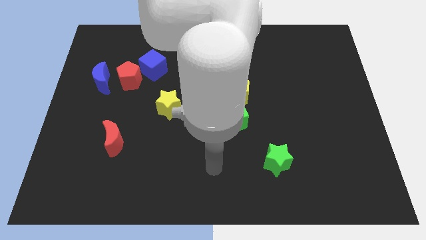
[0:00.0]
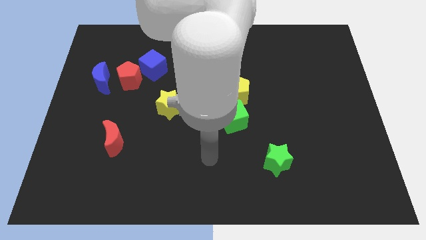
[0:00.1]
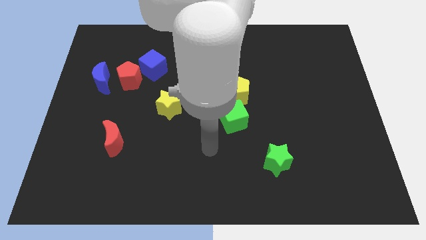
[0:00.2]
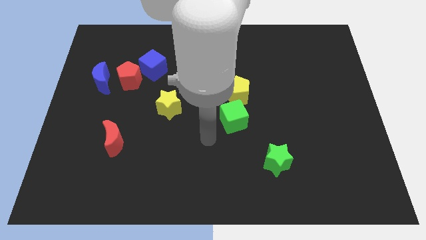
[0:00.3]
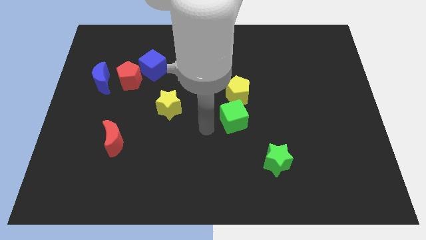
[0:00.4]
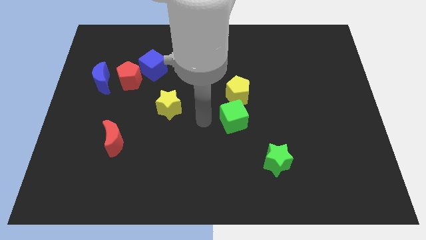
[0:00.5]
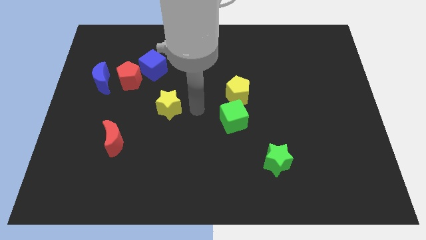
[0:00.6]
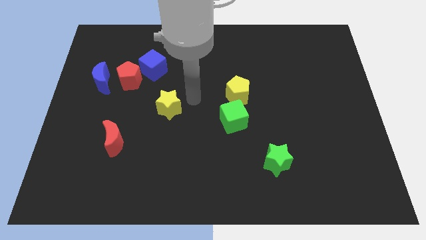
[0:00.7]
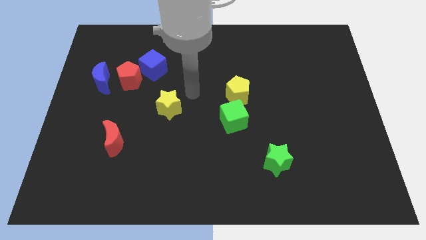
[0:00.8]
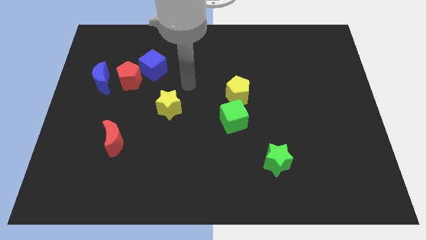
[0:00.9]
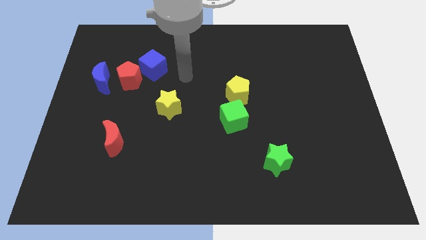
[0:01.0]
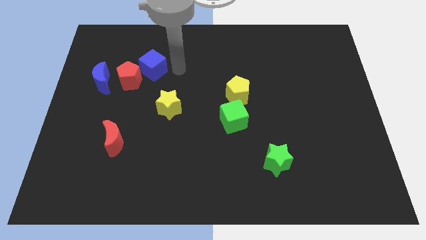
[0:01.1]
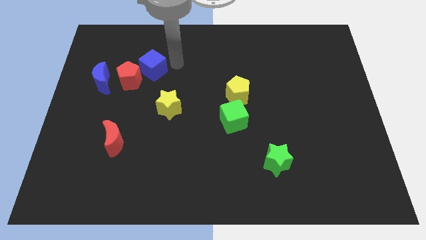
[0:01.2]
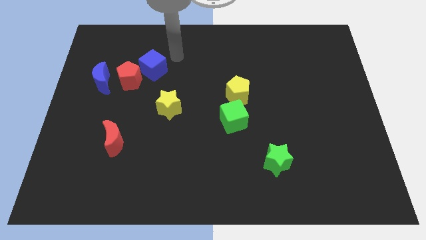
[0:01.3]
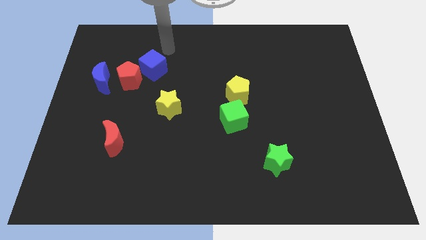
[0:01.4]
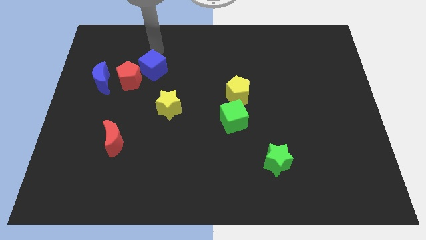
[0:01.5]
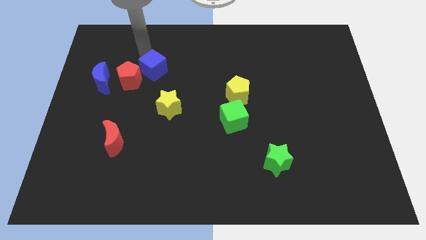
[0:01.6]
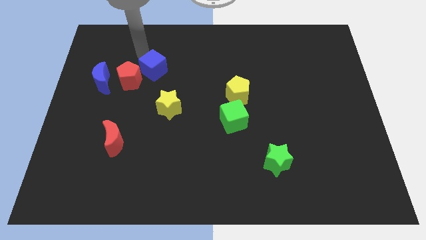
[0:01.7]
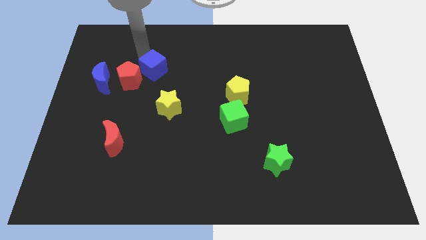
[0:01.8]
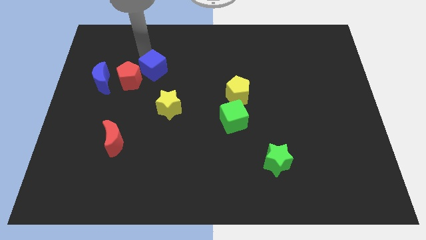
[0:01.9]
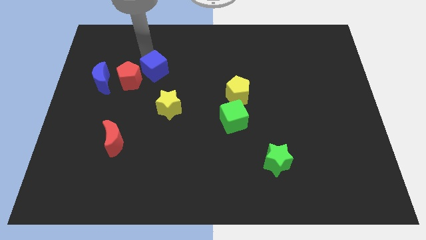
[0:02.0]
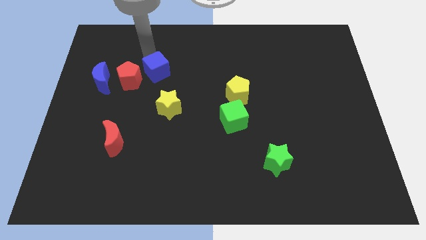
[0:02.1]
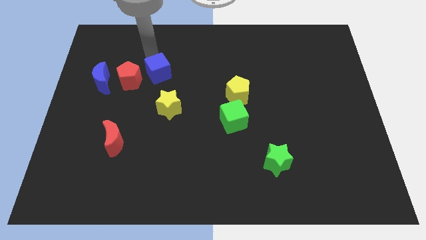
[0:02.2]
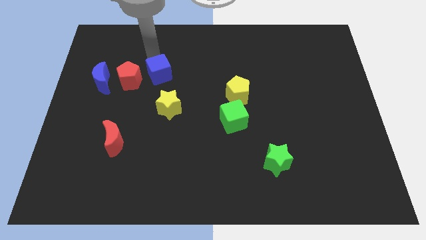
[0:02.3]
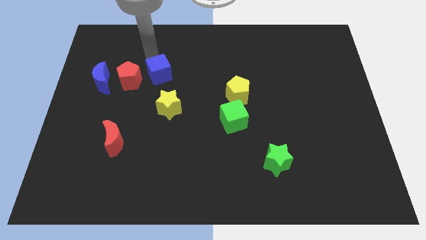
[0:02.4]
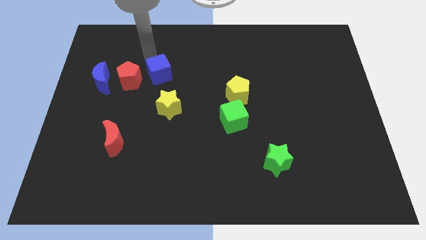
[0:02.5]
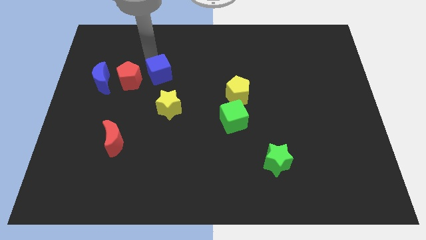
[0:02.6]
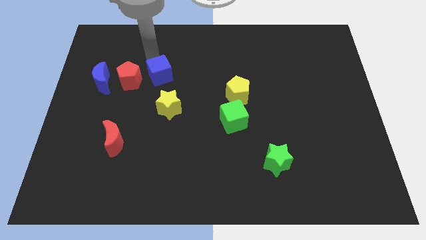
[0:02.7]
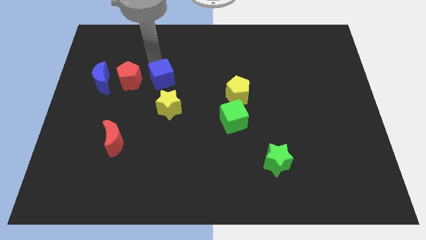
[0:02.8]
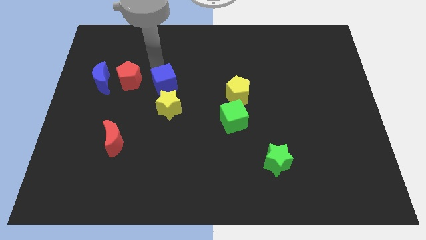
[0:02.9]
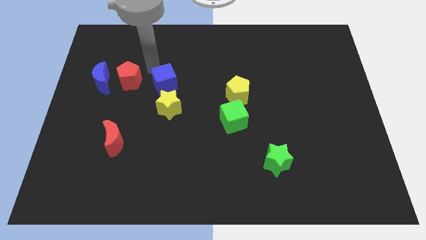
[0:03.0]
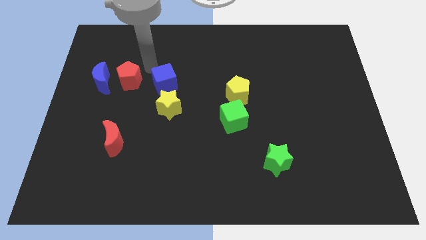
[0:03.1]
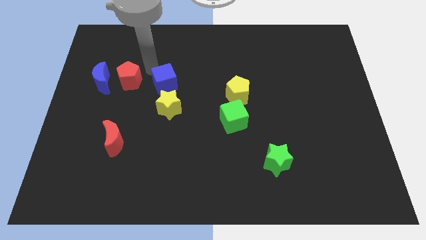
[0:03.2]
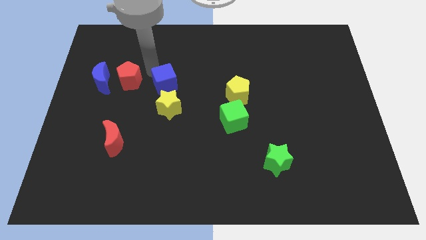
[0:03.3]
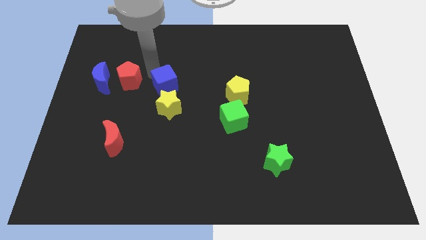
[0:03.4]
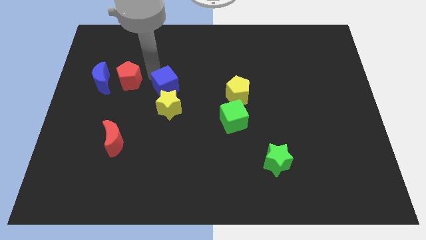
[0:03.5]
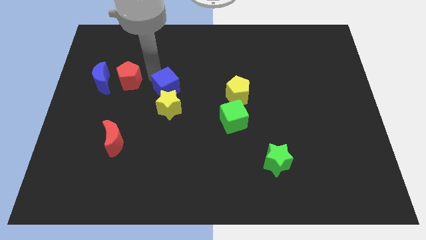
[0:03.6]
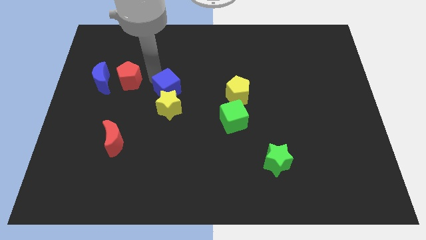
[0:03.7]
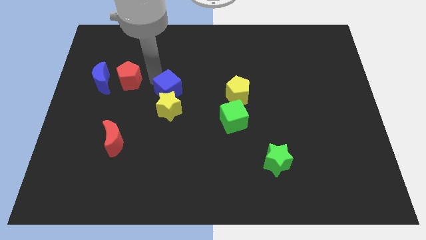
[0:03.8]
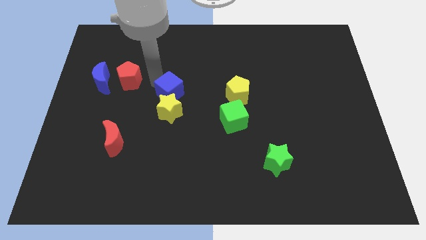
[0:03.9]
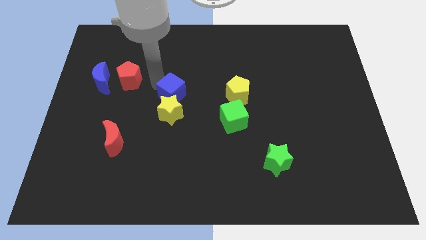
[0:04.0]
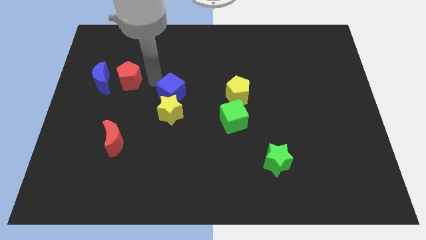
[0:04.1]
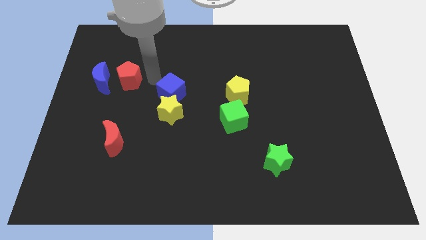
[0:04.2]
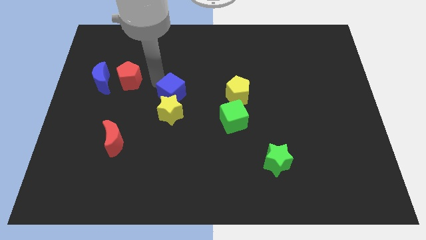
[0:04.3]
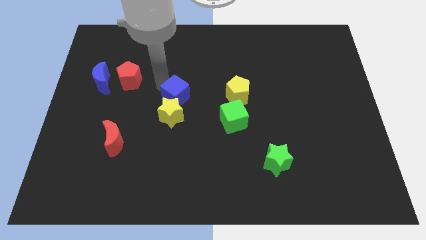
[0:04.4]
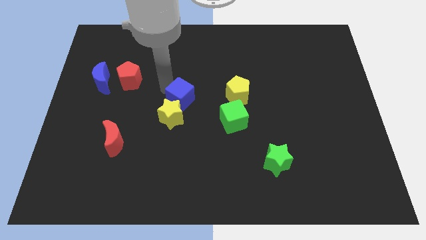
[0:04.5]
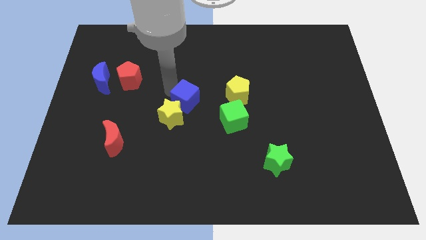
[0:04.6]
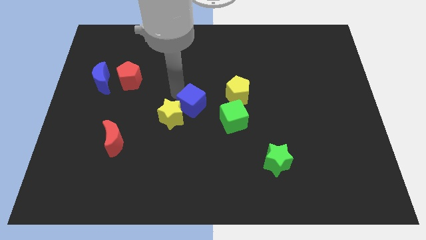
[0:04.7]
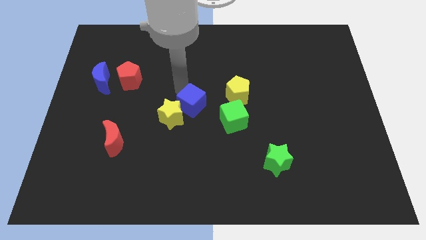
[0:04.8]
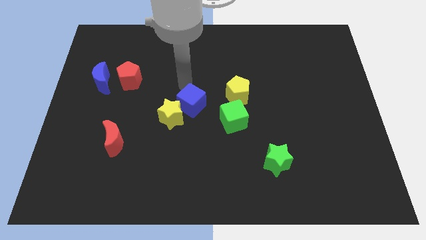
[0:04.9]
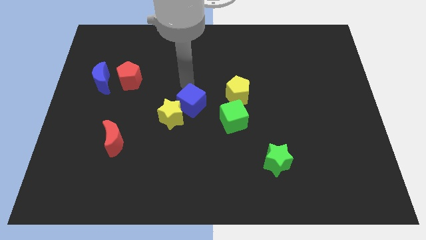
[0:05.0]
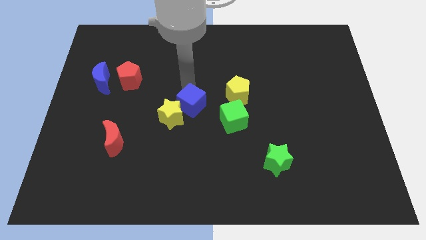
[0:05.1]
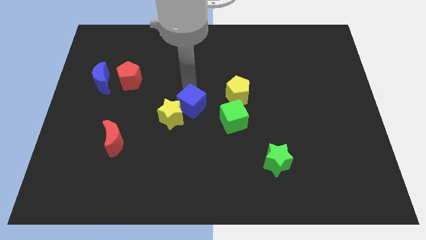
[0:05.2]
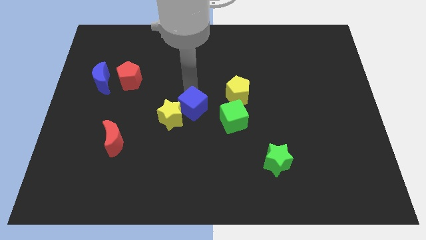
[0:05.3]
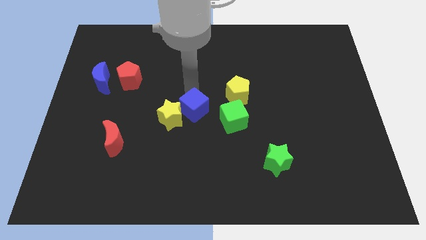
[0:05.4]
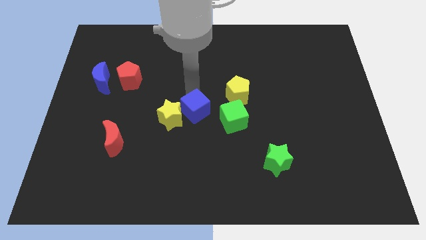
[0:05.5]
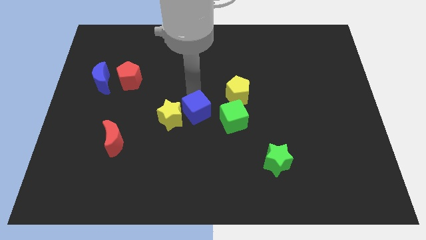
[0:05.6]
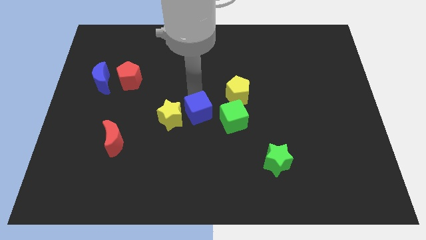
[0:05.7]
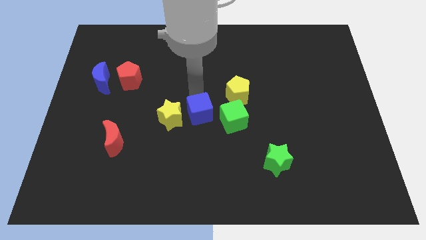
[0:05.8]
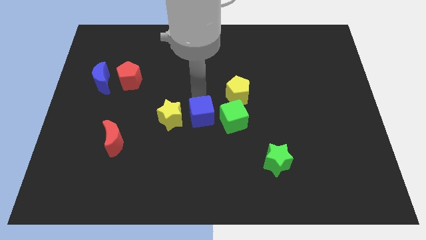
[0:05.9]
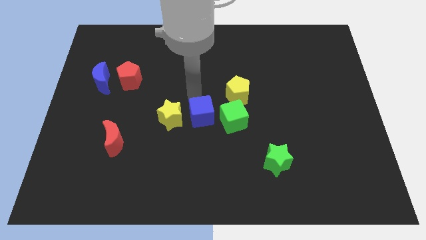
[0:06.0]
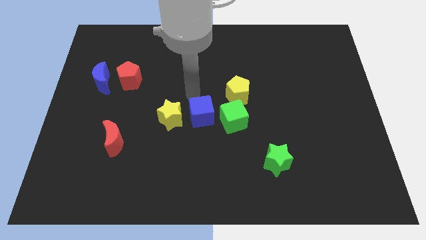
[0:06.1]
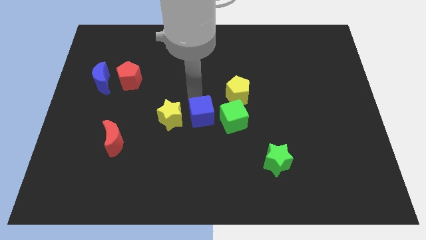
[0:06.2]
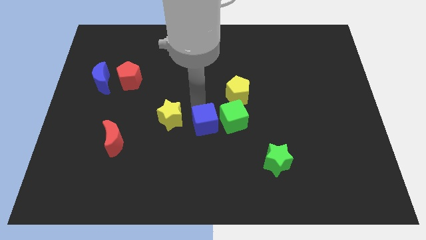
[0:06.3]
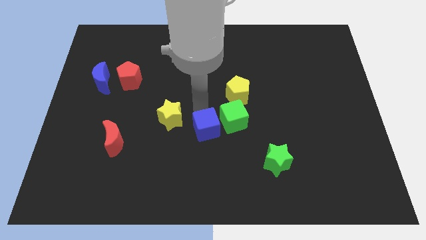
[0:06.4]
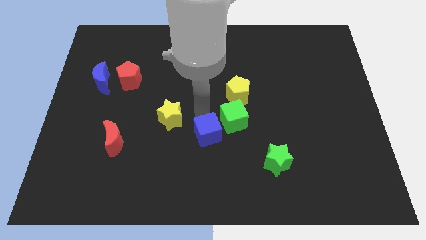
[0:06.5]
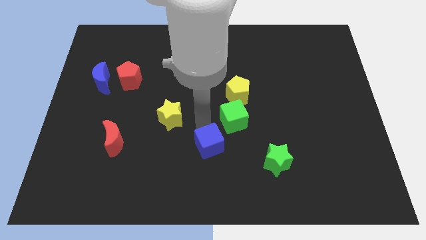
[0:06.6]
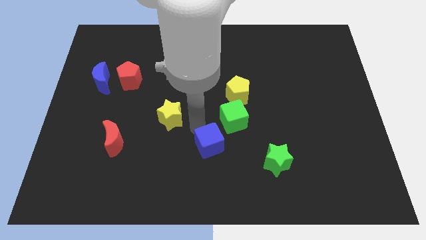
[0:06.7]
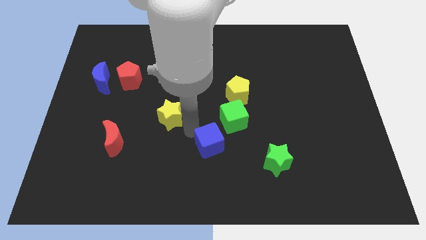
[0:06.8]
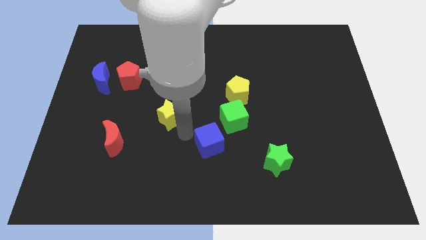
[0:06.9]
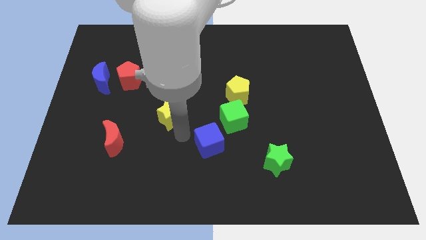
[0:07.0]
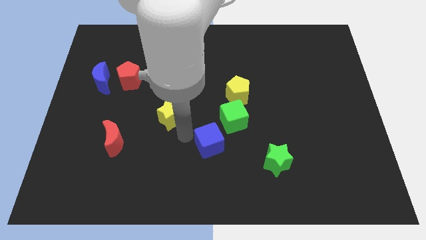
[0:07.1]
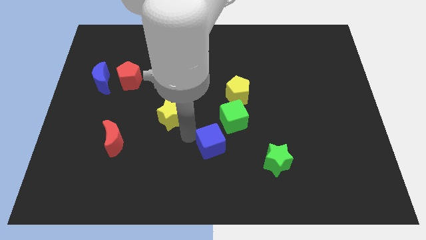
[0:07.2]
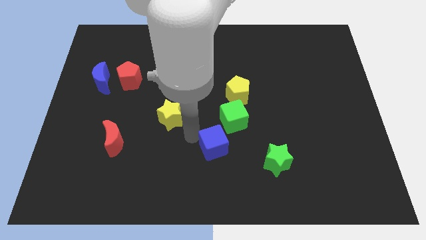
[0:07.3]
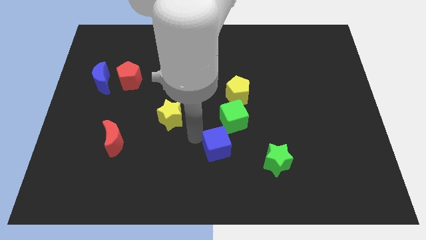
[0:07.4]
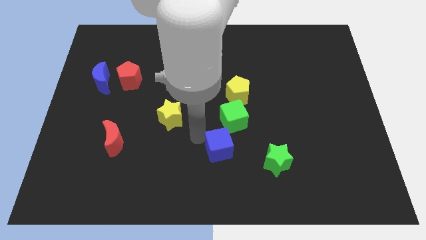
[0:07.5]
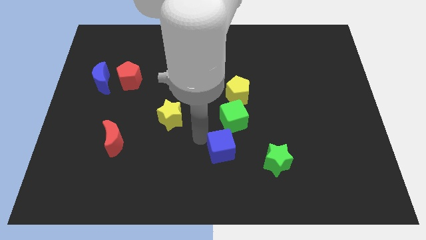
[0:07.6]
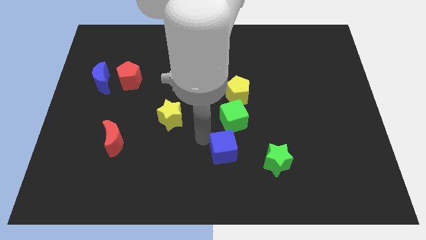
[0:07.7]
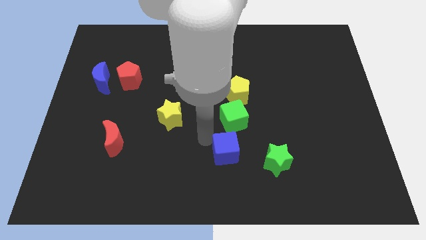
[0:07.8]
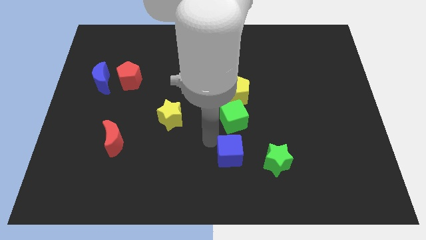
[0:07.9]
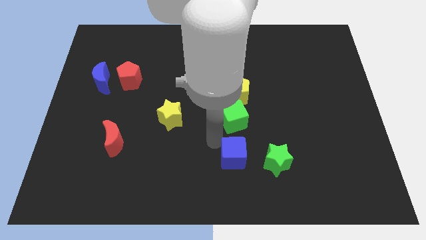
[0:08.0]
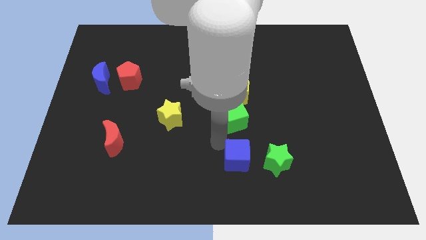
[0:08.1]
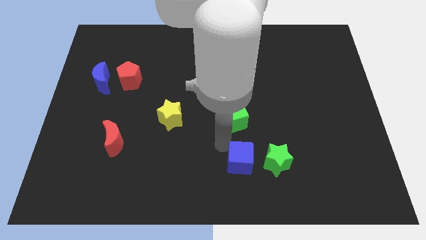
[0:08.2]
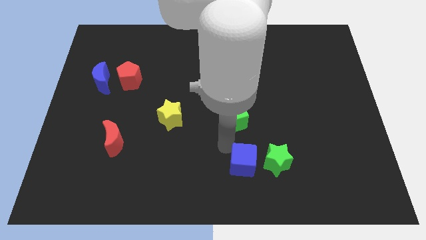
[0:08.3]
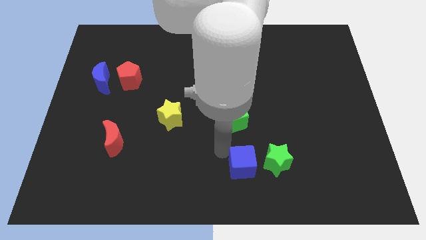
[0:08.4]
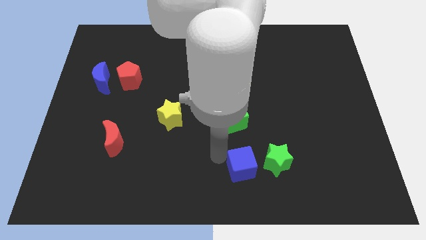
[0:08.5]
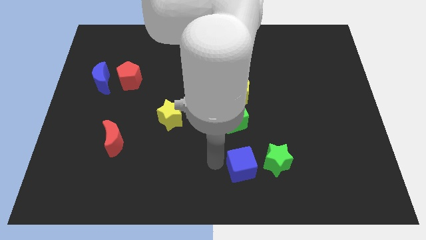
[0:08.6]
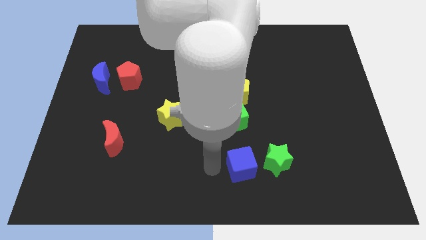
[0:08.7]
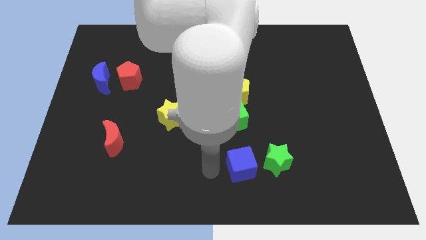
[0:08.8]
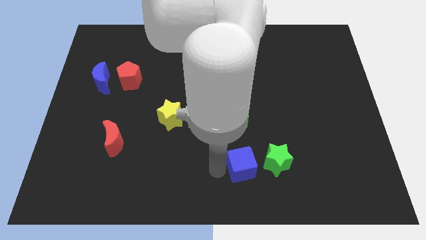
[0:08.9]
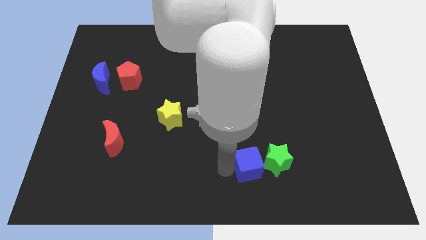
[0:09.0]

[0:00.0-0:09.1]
put the blue cube next to the green star
